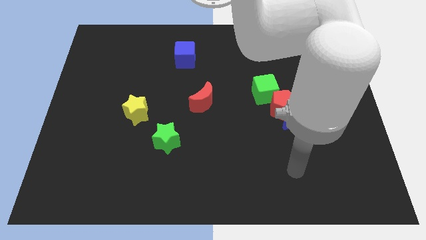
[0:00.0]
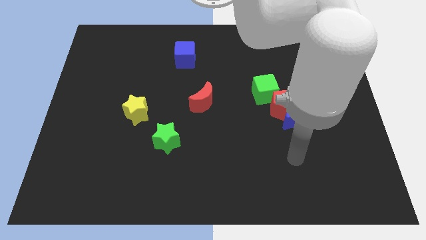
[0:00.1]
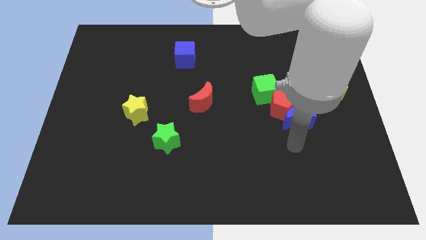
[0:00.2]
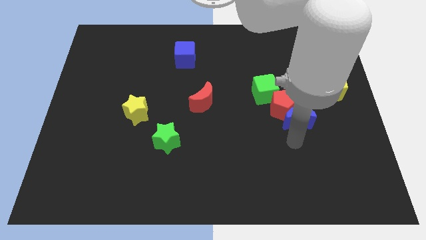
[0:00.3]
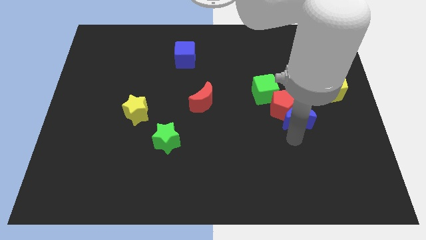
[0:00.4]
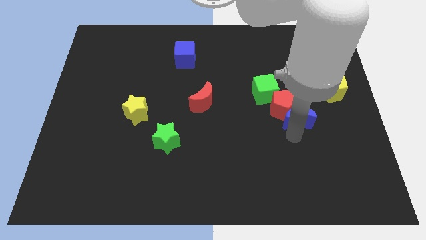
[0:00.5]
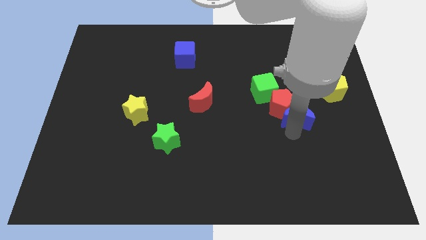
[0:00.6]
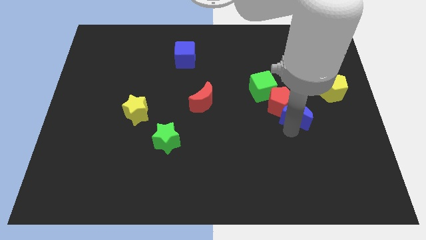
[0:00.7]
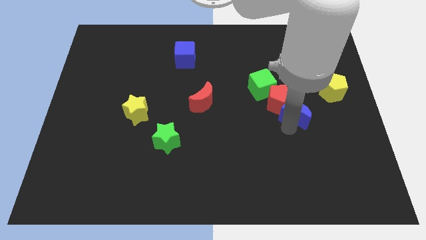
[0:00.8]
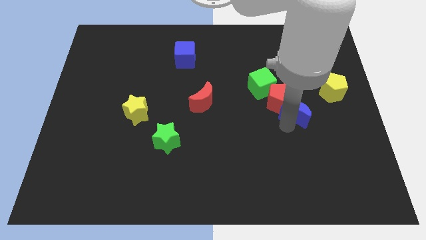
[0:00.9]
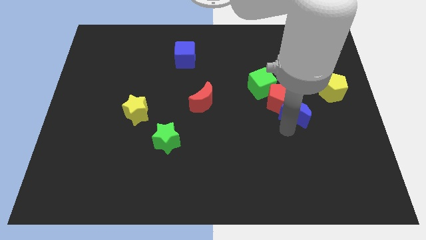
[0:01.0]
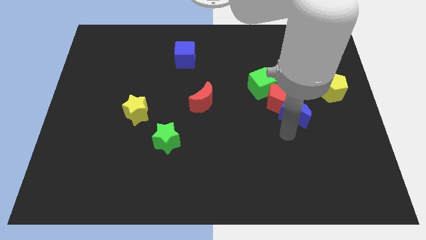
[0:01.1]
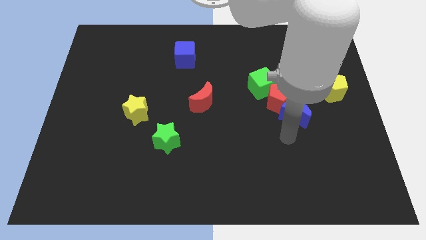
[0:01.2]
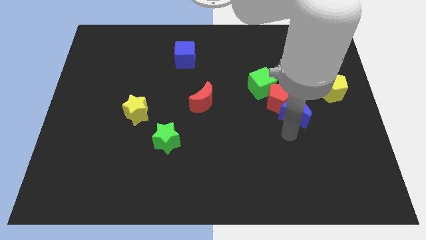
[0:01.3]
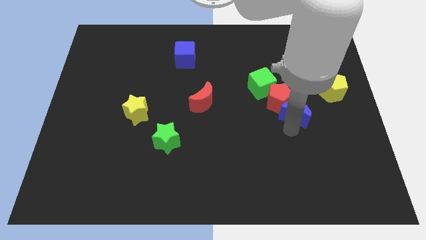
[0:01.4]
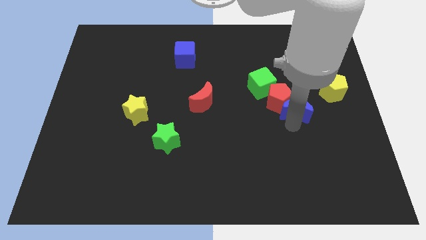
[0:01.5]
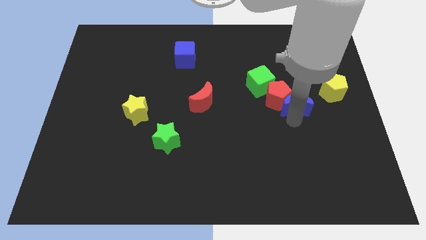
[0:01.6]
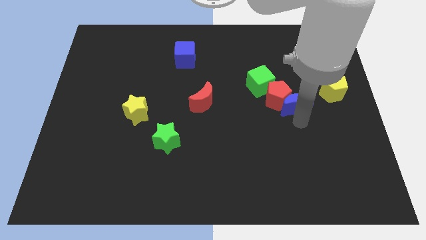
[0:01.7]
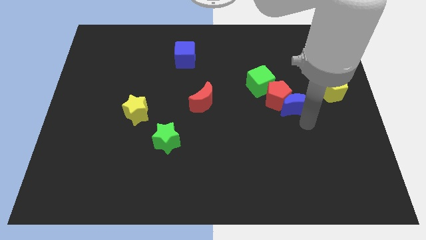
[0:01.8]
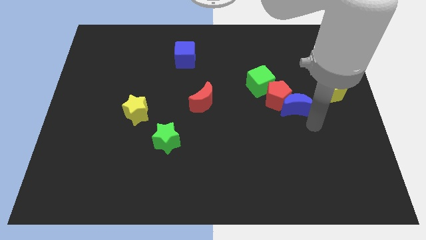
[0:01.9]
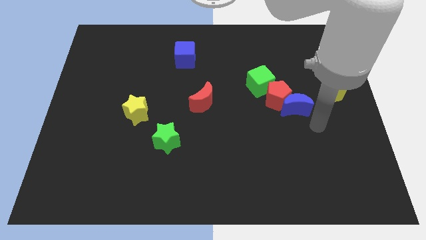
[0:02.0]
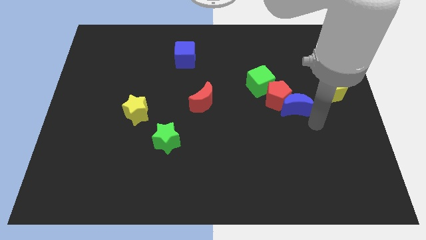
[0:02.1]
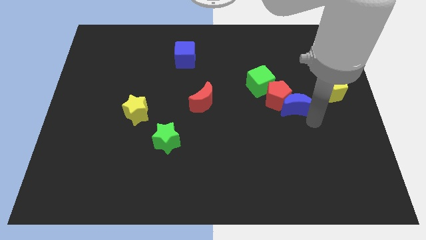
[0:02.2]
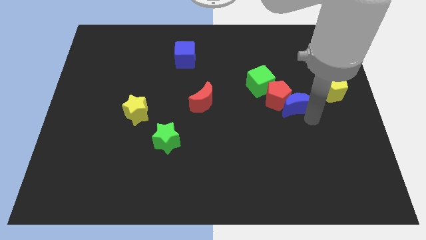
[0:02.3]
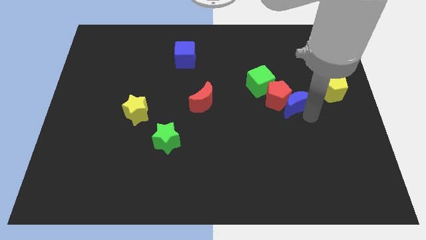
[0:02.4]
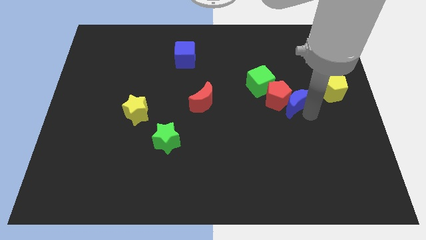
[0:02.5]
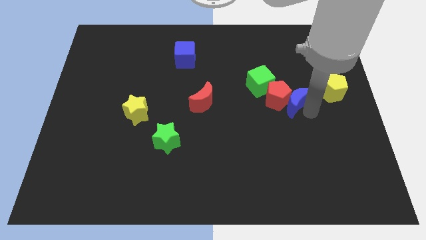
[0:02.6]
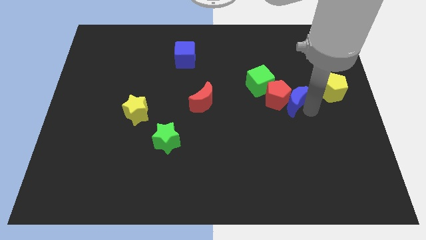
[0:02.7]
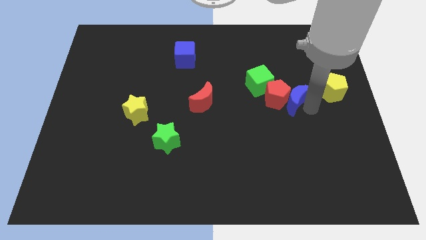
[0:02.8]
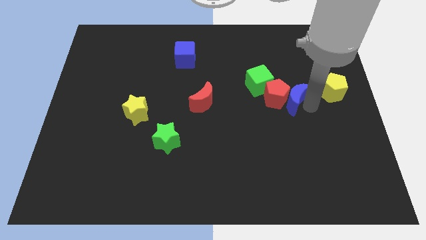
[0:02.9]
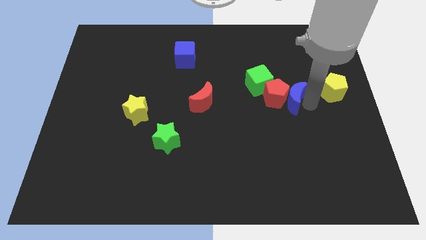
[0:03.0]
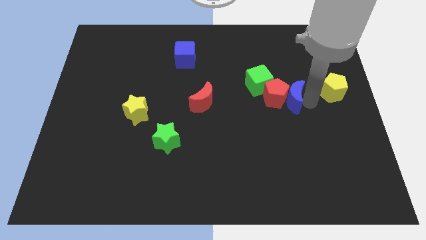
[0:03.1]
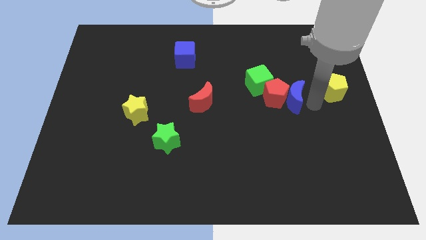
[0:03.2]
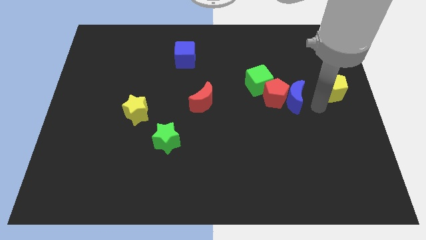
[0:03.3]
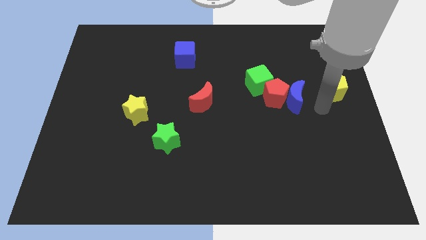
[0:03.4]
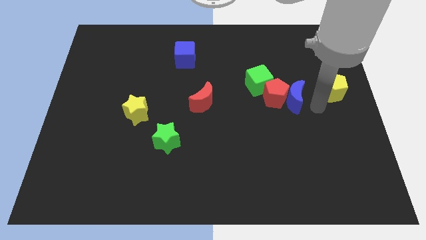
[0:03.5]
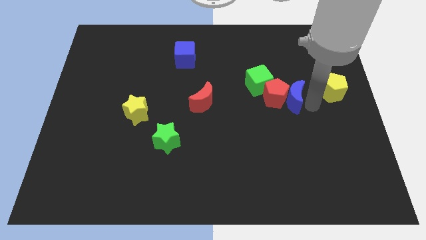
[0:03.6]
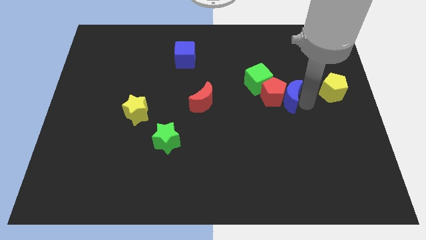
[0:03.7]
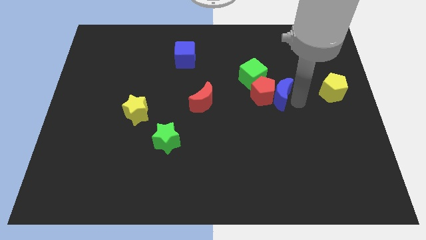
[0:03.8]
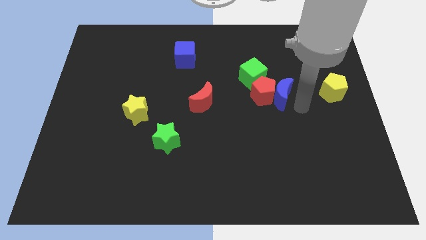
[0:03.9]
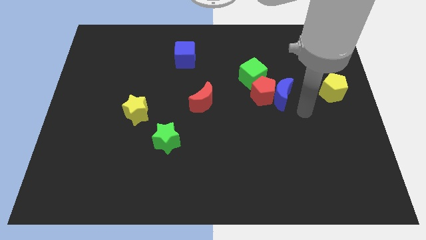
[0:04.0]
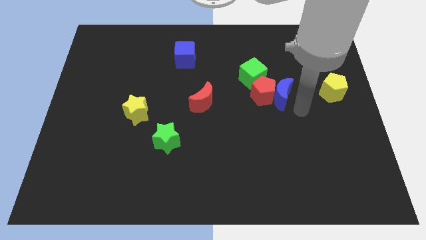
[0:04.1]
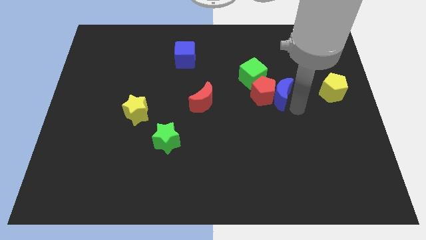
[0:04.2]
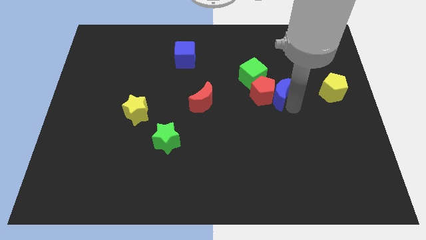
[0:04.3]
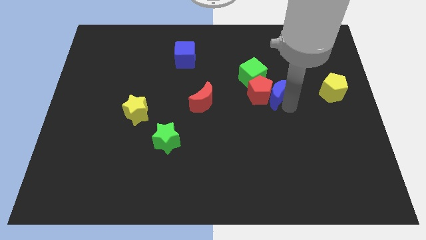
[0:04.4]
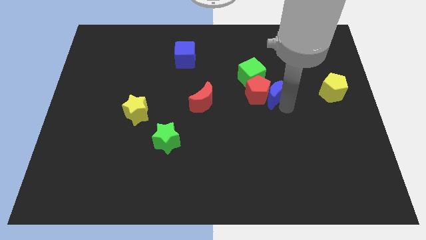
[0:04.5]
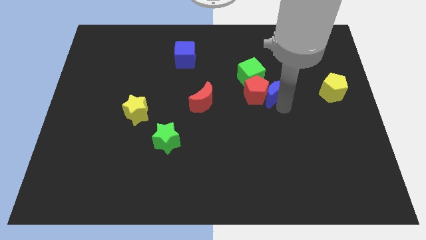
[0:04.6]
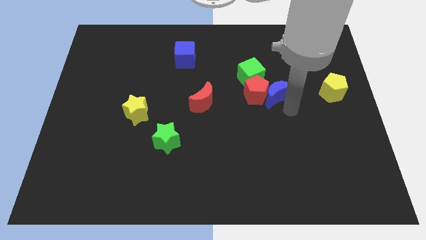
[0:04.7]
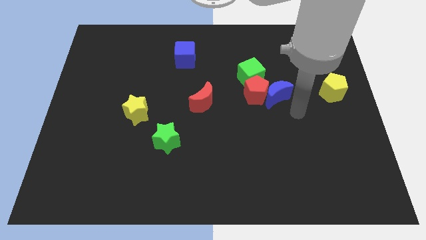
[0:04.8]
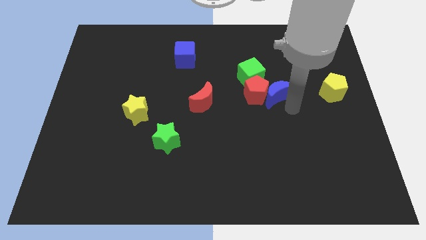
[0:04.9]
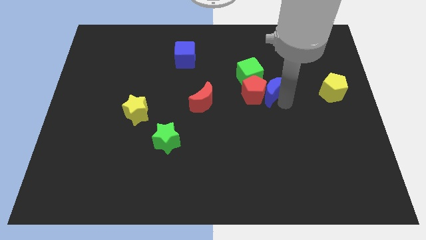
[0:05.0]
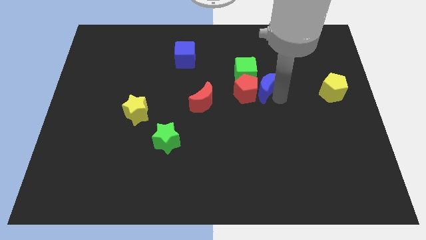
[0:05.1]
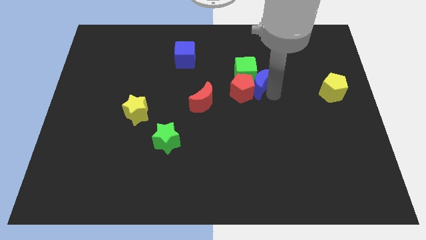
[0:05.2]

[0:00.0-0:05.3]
push the blue moon close to the green cube

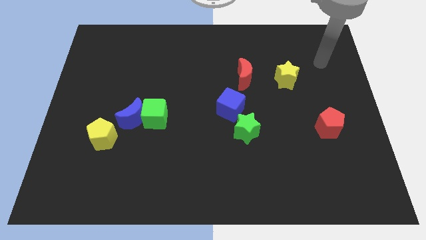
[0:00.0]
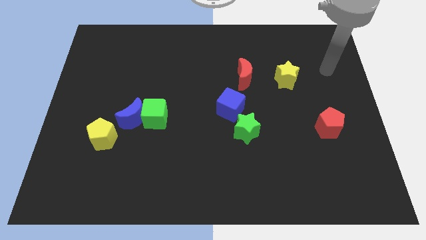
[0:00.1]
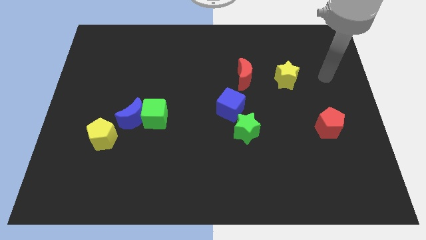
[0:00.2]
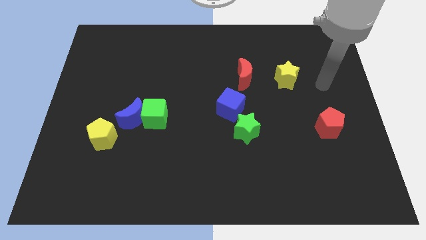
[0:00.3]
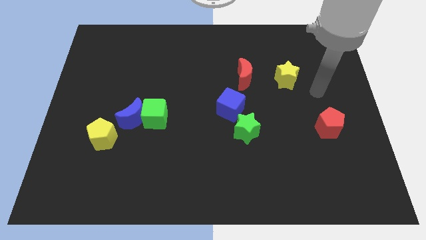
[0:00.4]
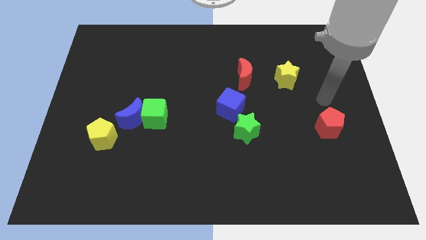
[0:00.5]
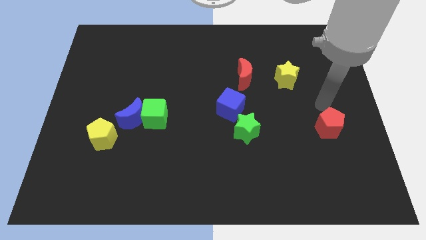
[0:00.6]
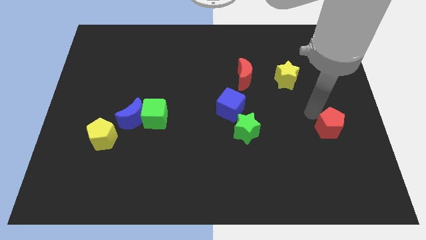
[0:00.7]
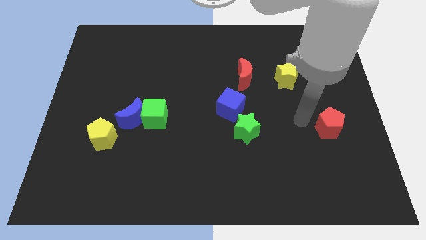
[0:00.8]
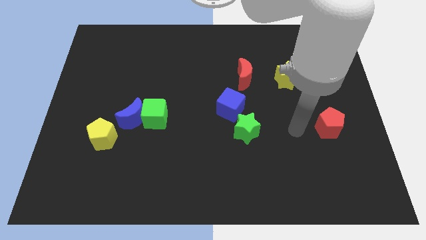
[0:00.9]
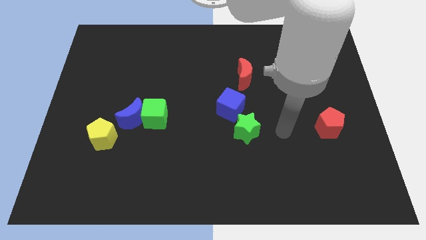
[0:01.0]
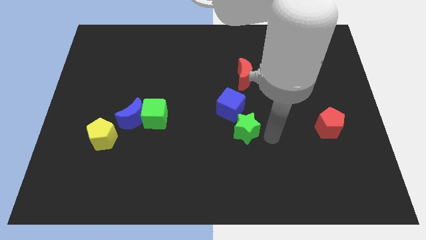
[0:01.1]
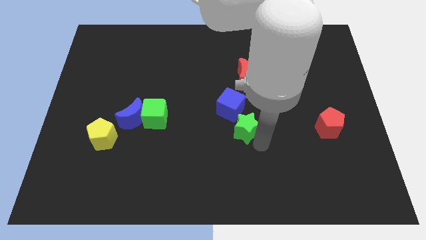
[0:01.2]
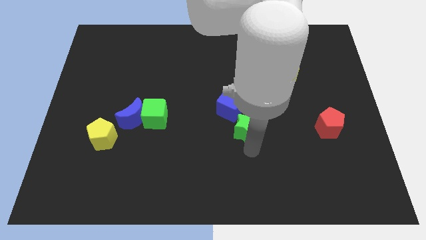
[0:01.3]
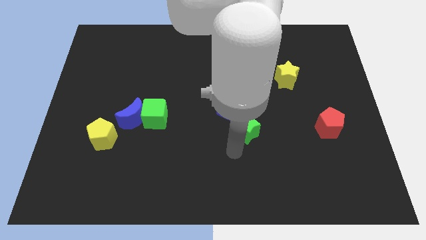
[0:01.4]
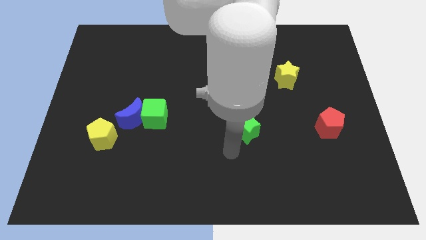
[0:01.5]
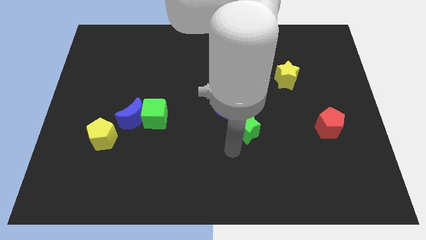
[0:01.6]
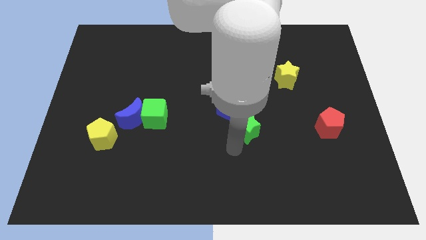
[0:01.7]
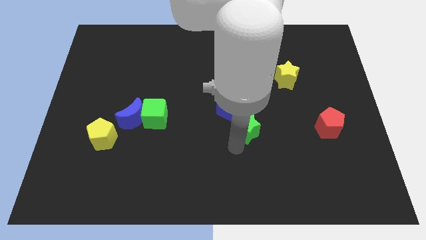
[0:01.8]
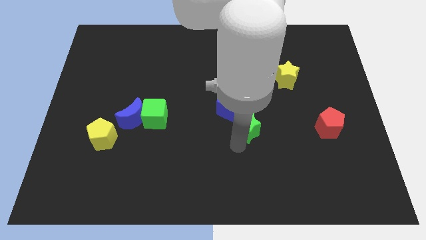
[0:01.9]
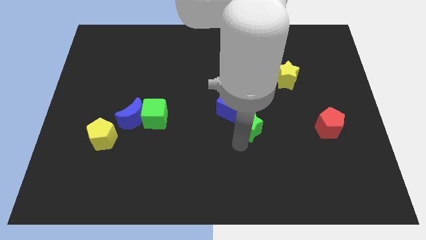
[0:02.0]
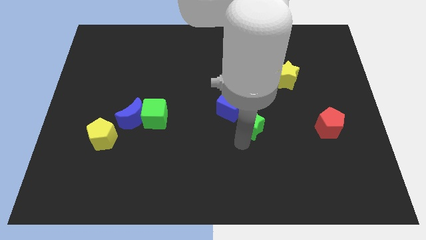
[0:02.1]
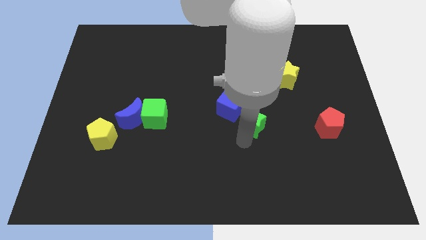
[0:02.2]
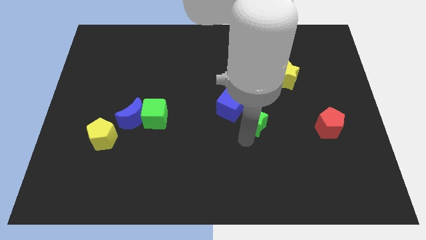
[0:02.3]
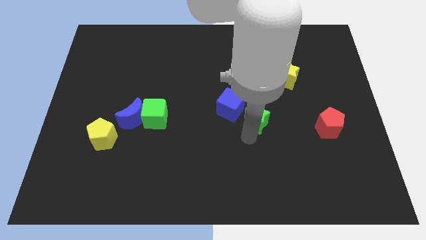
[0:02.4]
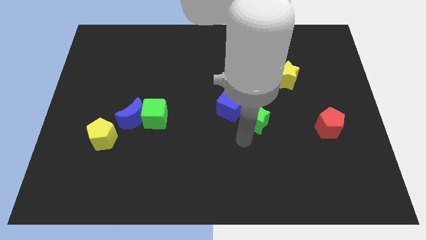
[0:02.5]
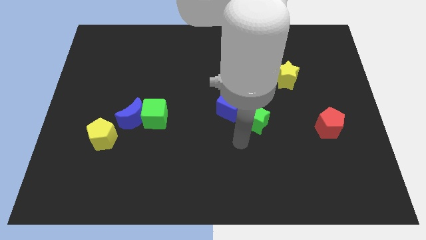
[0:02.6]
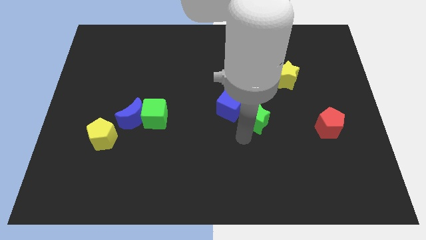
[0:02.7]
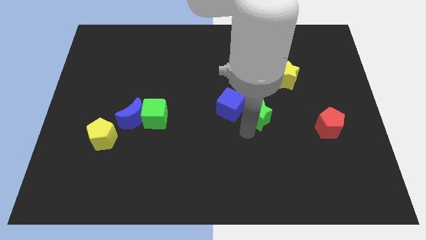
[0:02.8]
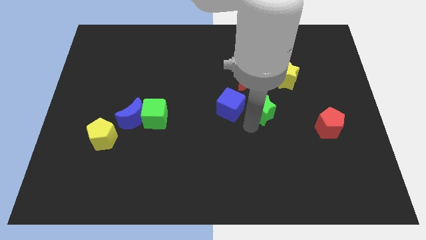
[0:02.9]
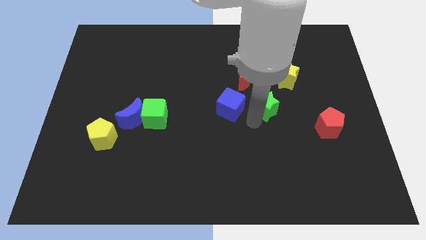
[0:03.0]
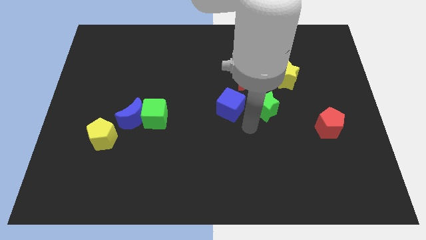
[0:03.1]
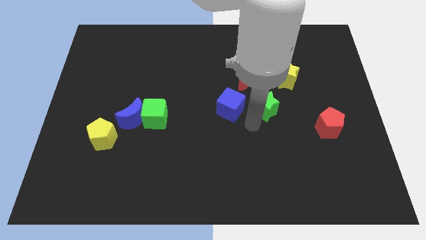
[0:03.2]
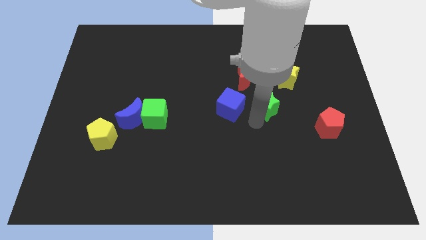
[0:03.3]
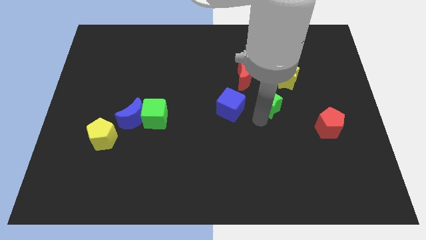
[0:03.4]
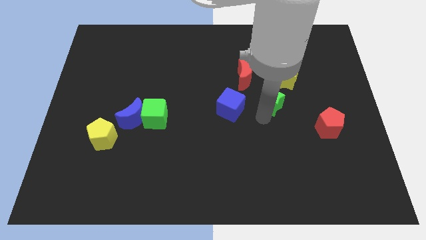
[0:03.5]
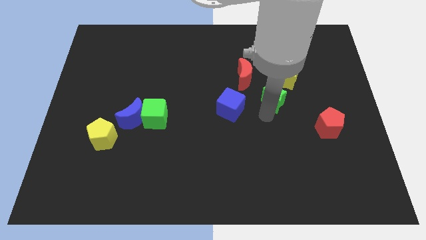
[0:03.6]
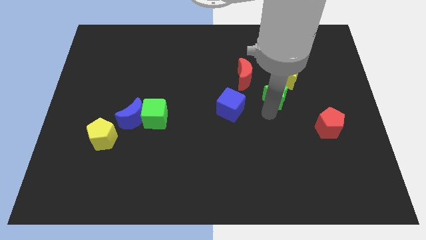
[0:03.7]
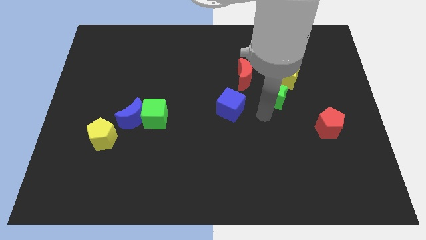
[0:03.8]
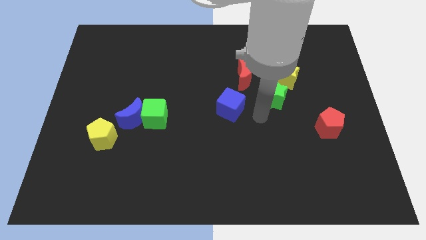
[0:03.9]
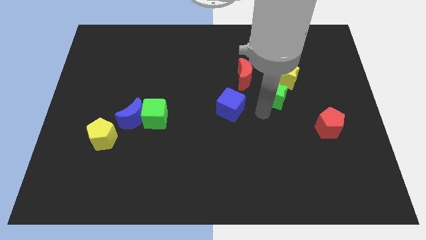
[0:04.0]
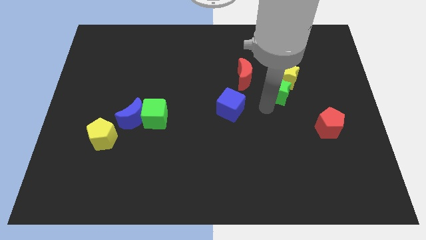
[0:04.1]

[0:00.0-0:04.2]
push the green star next to the yellow star
